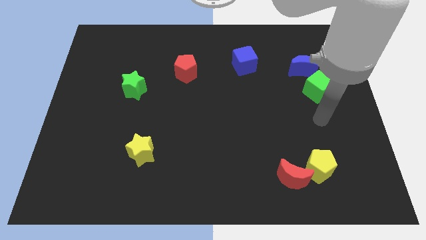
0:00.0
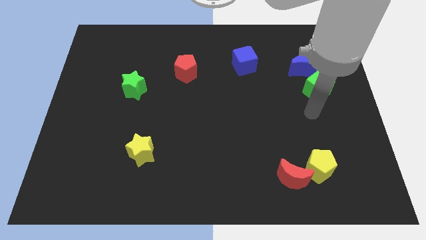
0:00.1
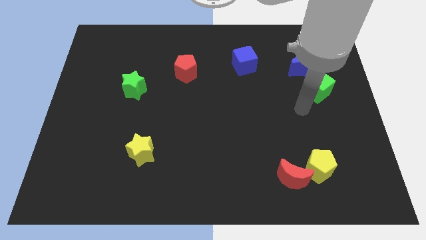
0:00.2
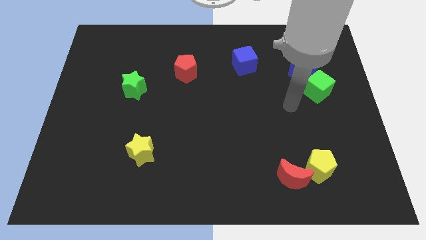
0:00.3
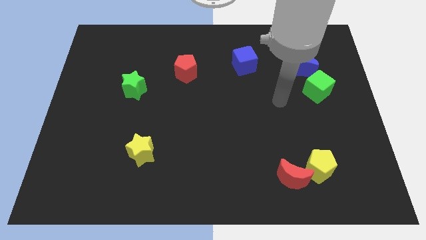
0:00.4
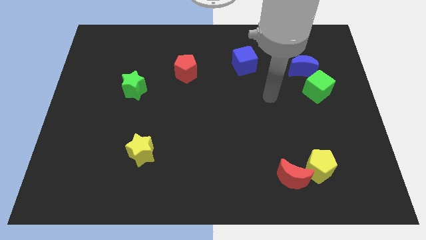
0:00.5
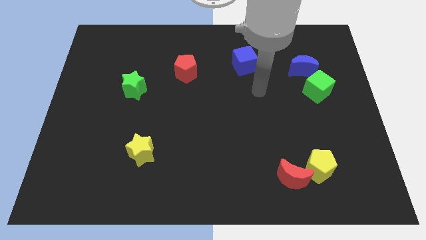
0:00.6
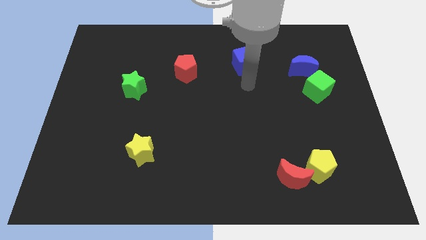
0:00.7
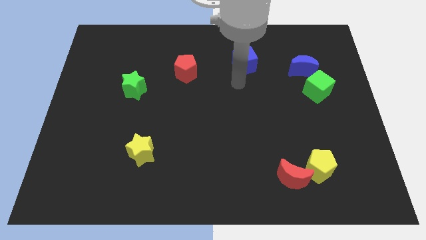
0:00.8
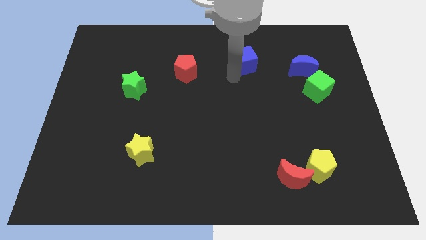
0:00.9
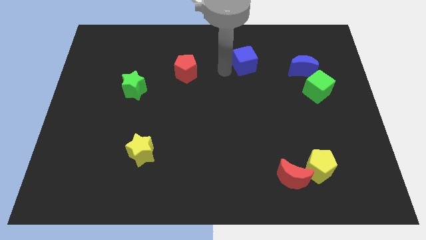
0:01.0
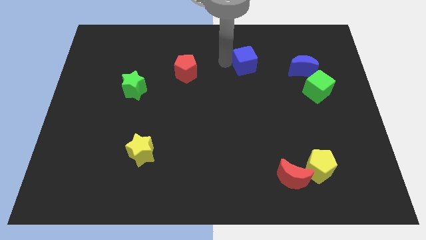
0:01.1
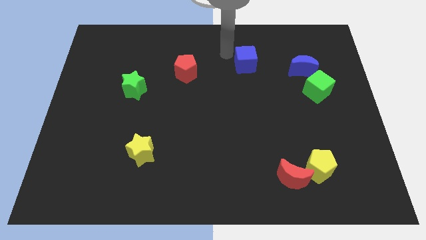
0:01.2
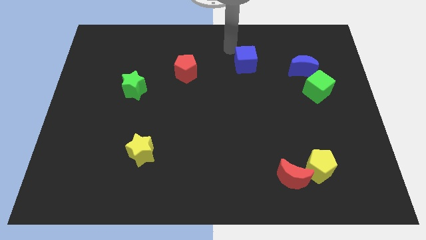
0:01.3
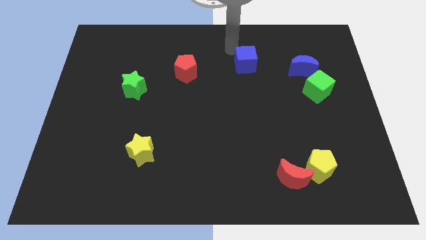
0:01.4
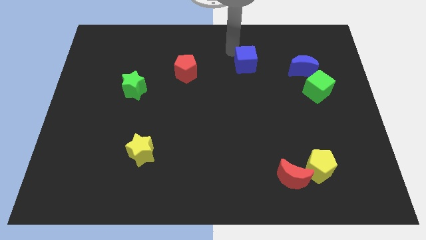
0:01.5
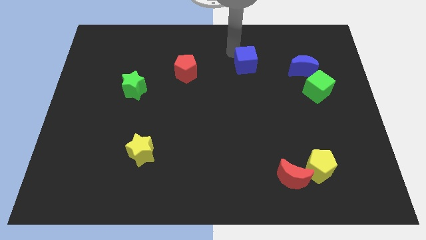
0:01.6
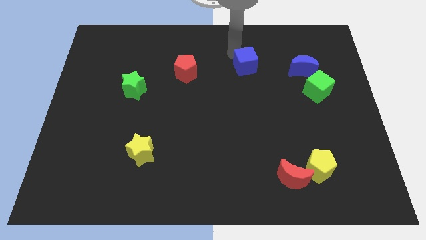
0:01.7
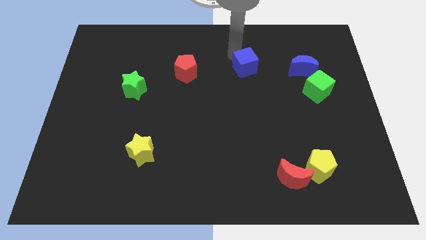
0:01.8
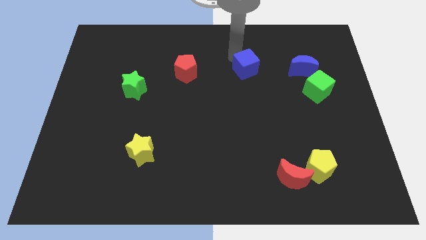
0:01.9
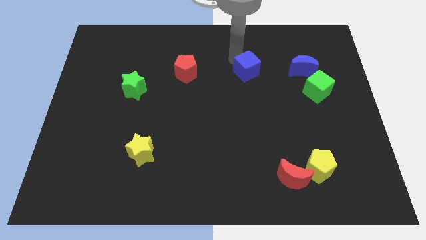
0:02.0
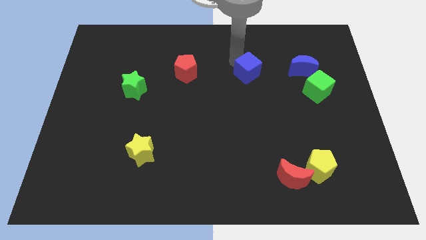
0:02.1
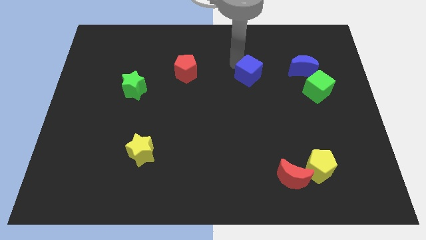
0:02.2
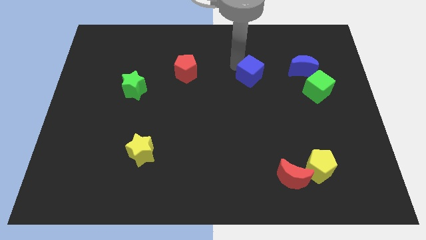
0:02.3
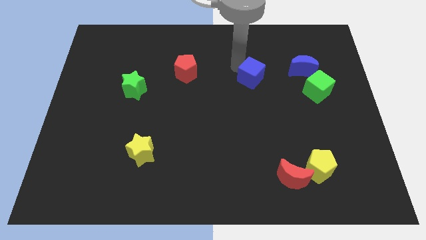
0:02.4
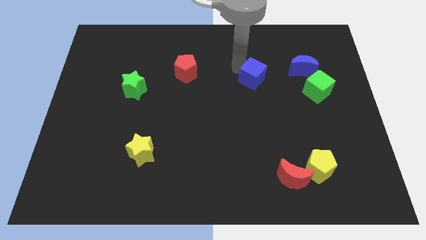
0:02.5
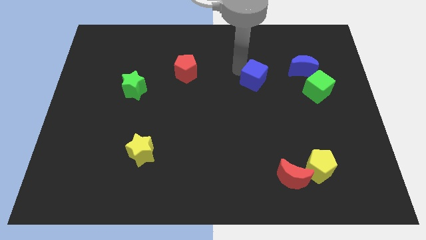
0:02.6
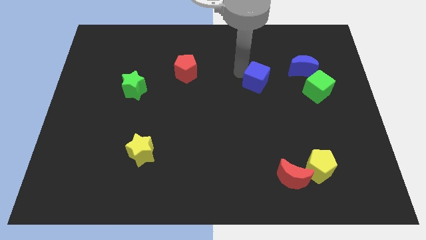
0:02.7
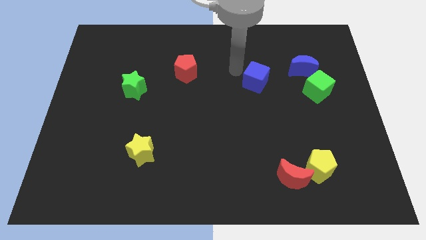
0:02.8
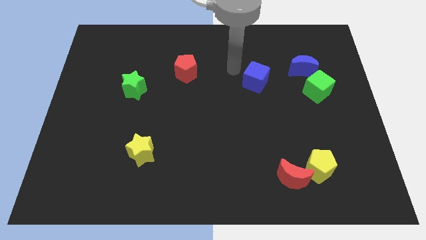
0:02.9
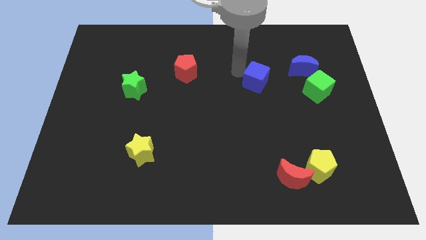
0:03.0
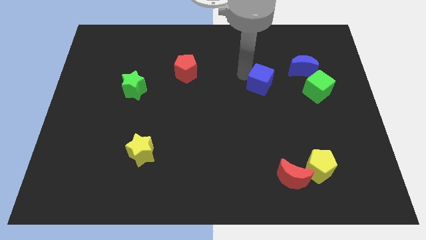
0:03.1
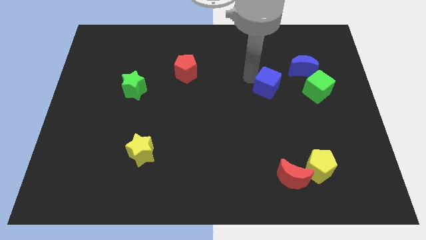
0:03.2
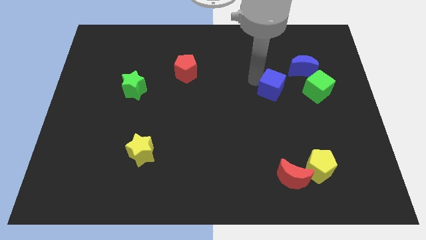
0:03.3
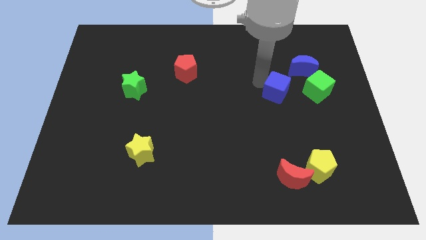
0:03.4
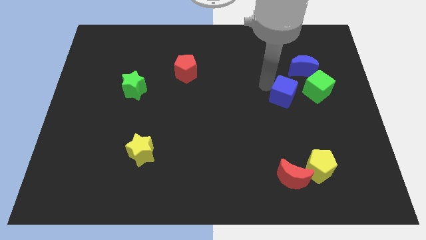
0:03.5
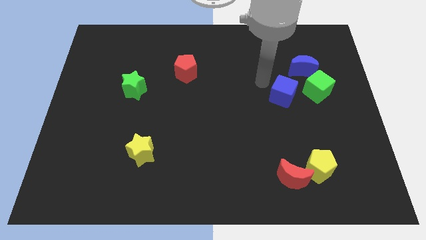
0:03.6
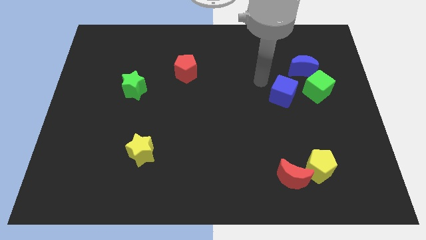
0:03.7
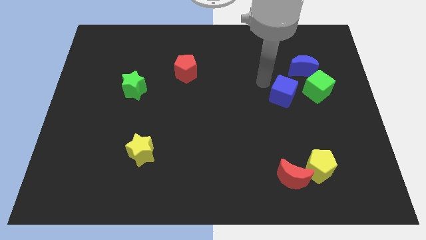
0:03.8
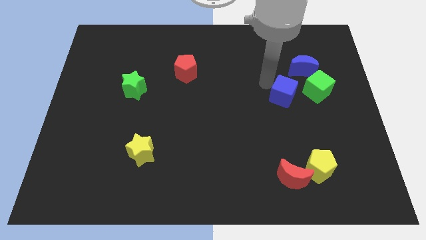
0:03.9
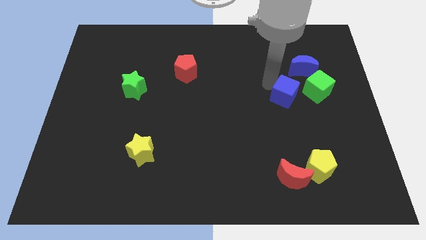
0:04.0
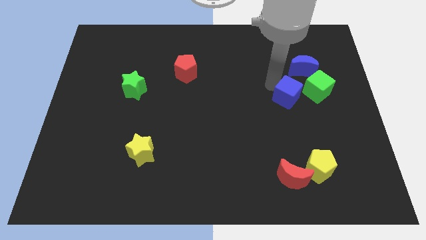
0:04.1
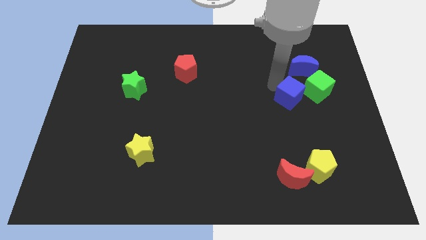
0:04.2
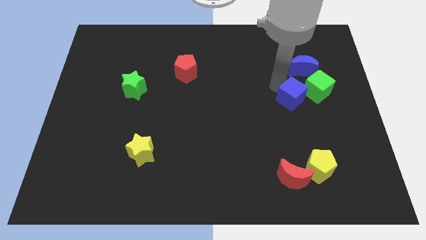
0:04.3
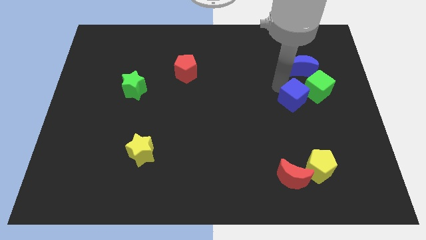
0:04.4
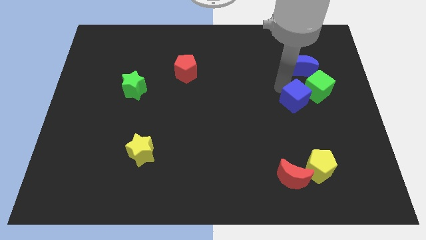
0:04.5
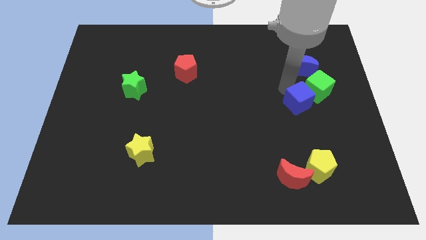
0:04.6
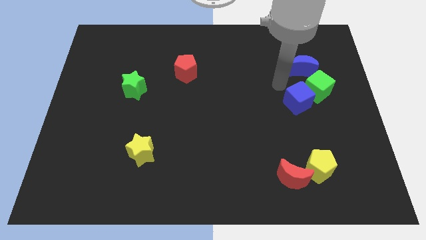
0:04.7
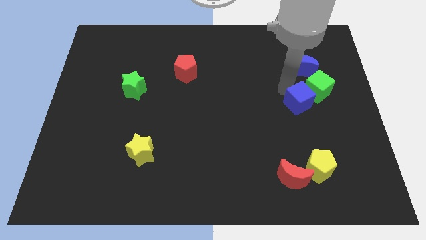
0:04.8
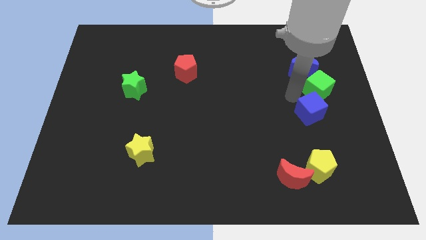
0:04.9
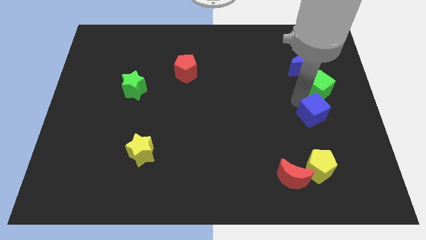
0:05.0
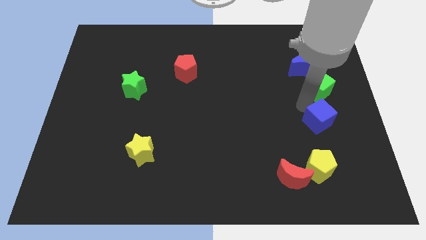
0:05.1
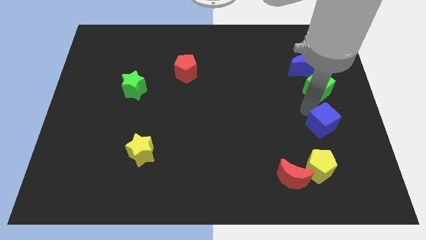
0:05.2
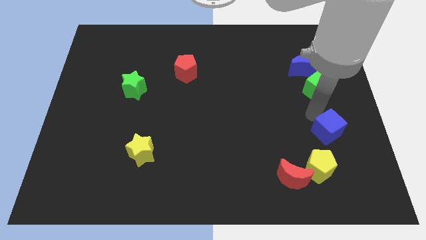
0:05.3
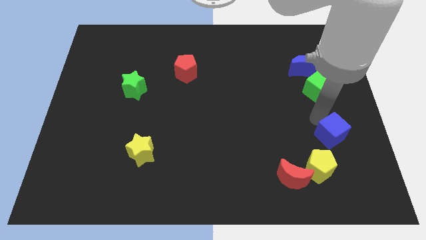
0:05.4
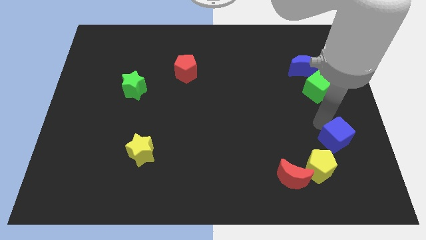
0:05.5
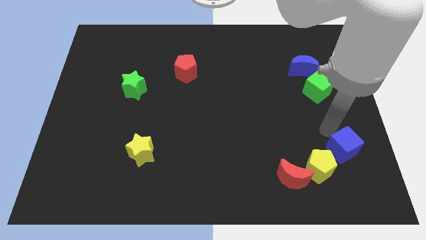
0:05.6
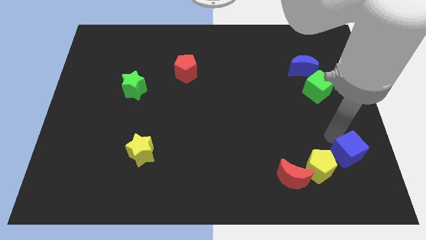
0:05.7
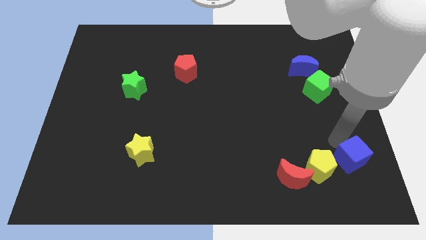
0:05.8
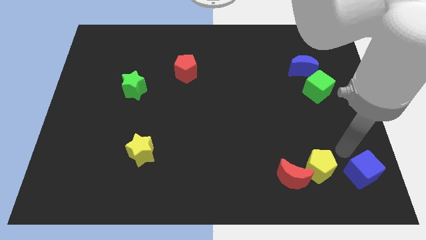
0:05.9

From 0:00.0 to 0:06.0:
put the blue cube to the lower right corner
